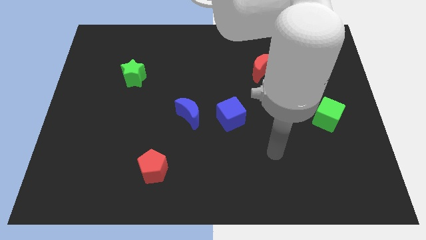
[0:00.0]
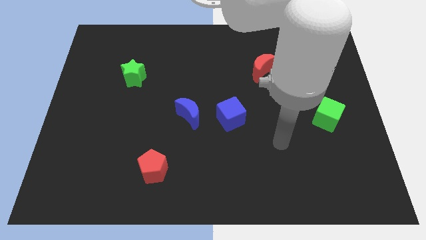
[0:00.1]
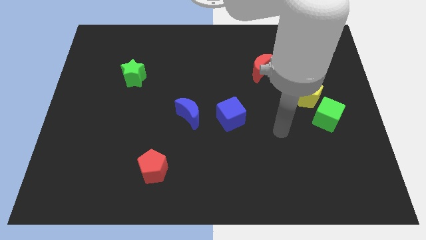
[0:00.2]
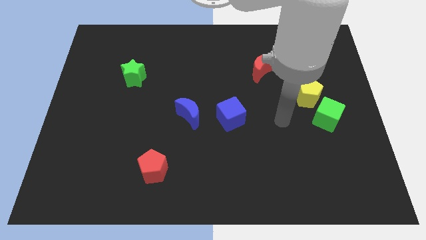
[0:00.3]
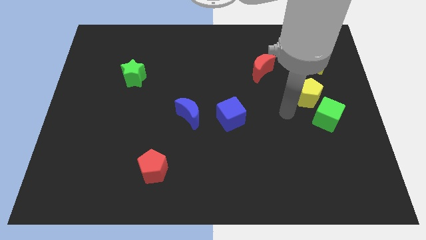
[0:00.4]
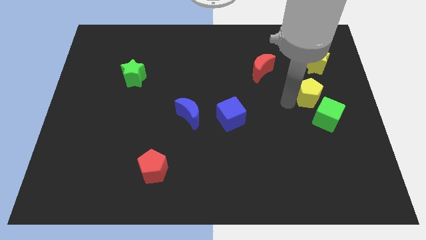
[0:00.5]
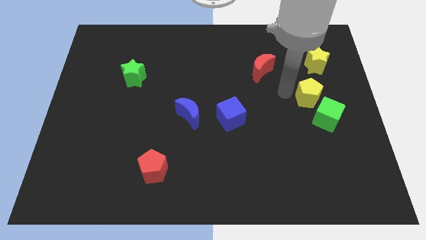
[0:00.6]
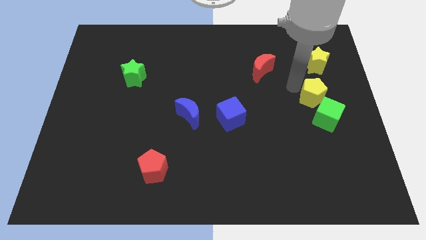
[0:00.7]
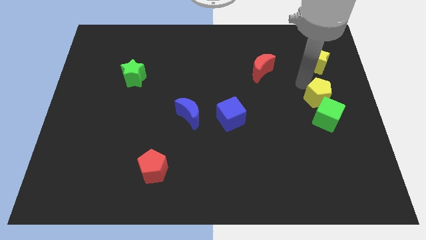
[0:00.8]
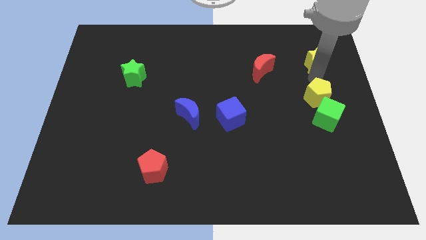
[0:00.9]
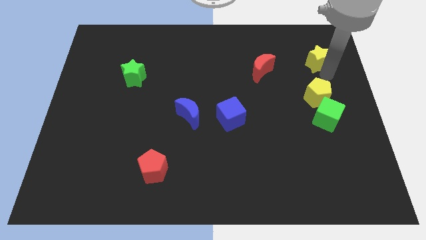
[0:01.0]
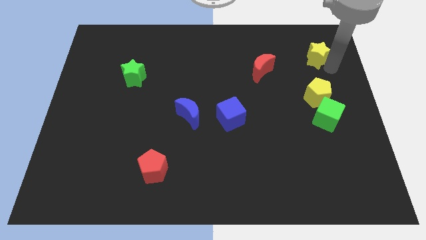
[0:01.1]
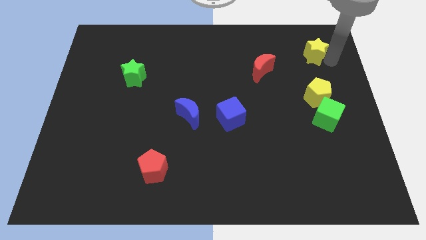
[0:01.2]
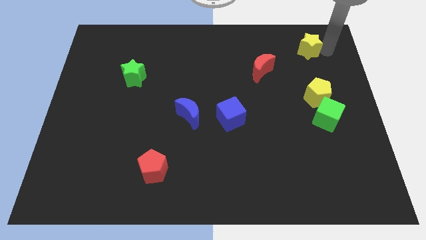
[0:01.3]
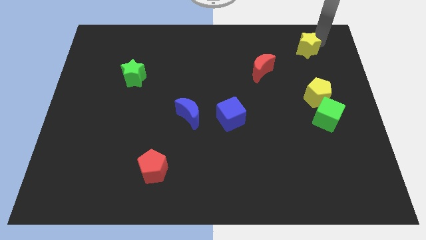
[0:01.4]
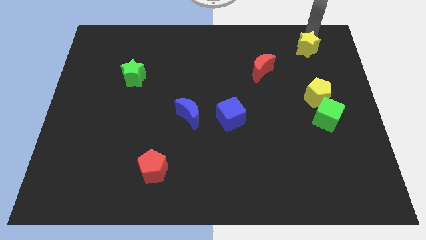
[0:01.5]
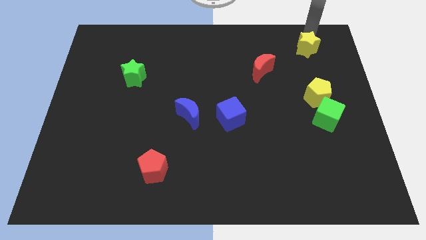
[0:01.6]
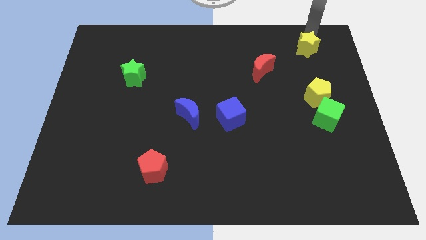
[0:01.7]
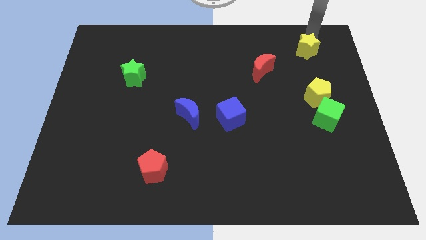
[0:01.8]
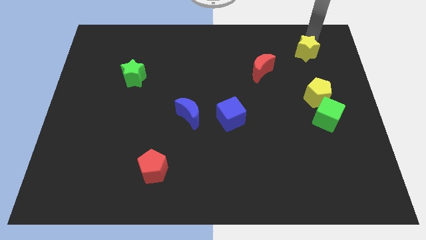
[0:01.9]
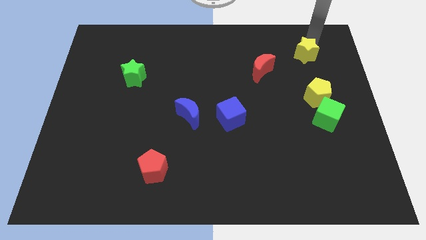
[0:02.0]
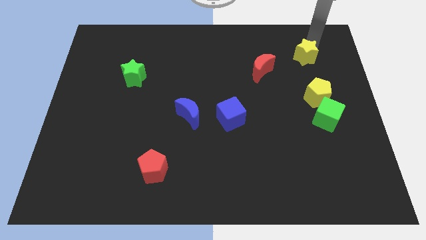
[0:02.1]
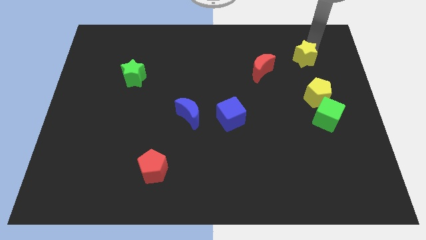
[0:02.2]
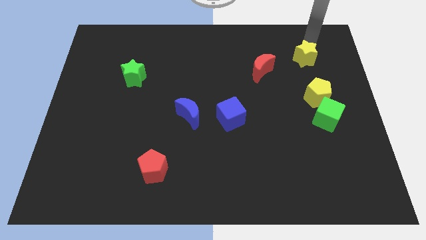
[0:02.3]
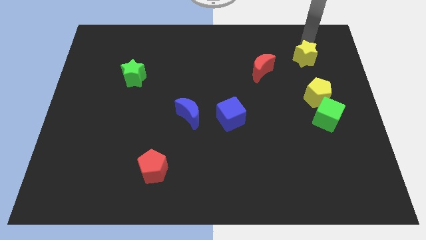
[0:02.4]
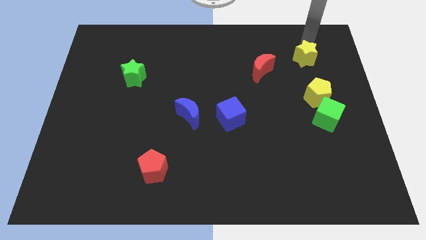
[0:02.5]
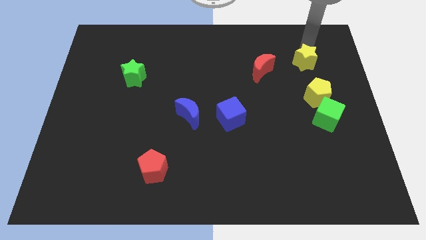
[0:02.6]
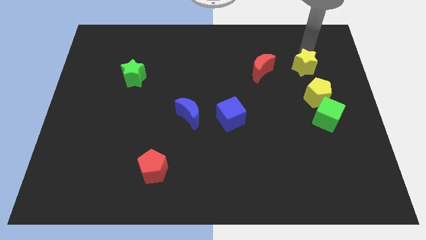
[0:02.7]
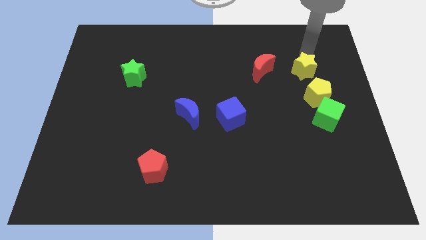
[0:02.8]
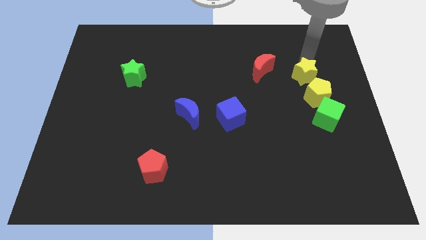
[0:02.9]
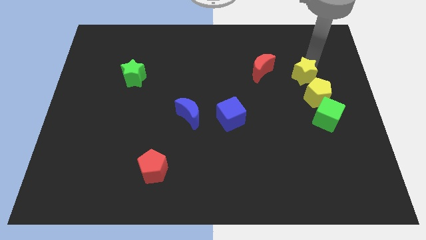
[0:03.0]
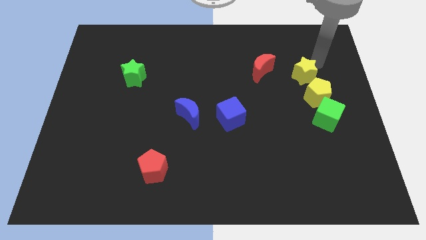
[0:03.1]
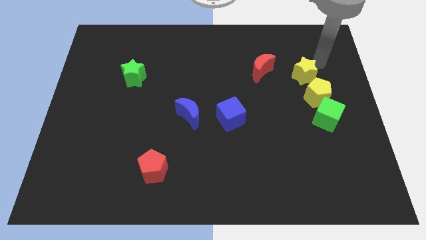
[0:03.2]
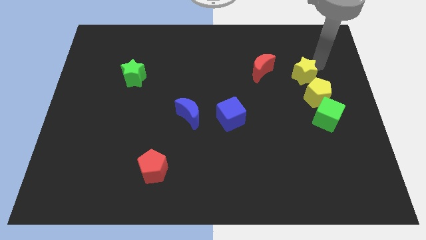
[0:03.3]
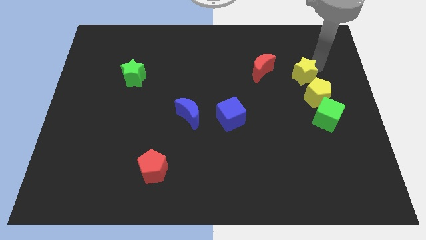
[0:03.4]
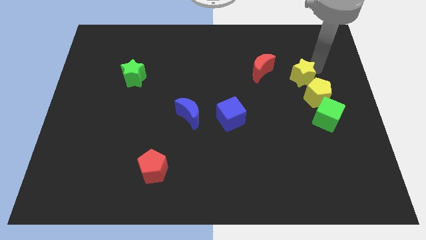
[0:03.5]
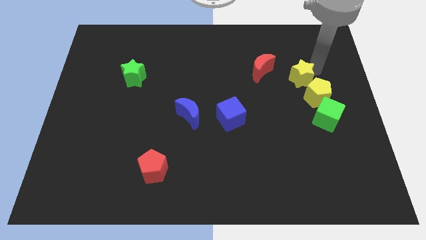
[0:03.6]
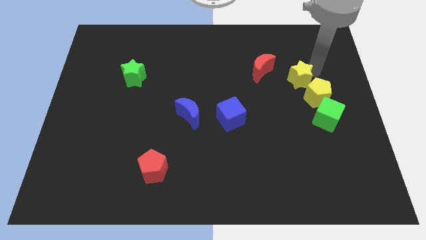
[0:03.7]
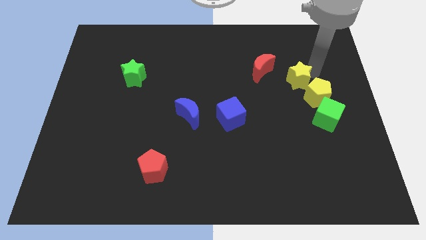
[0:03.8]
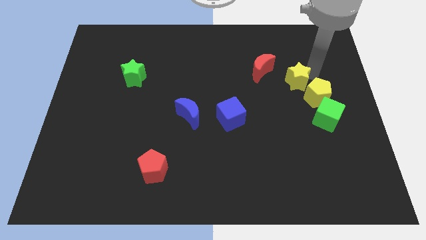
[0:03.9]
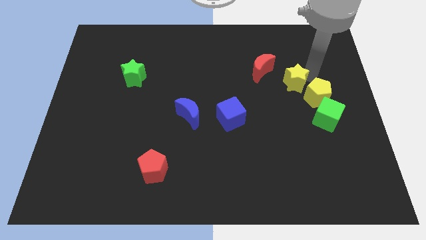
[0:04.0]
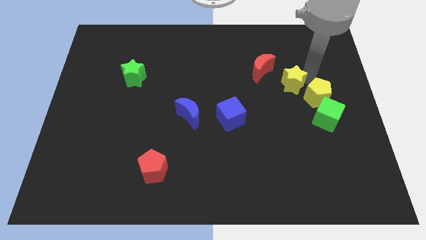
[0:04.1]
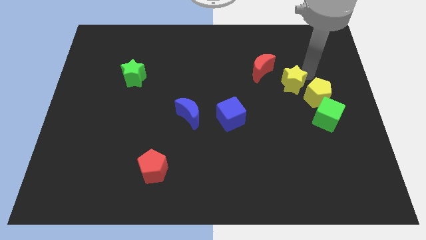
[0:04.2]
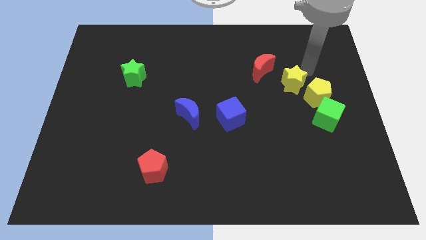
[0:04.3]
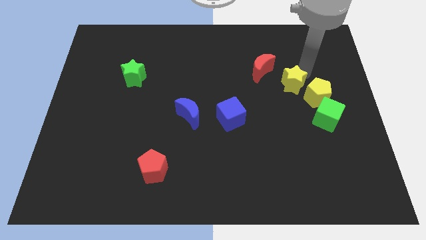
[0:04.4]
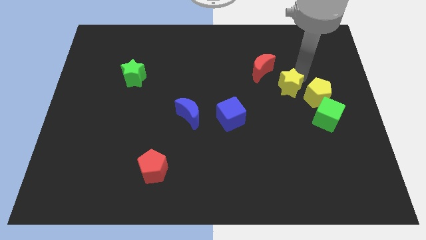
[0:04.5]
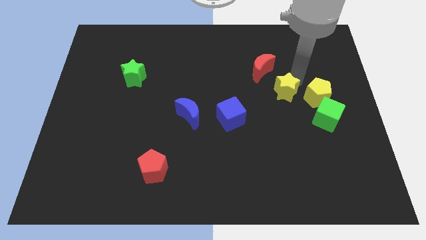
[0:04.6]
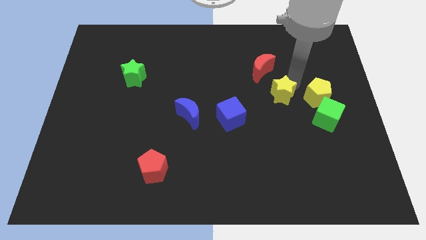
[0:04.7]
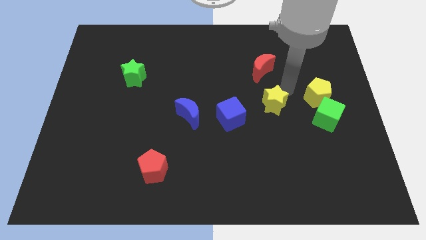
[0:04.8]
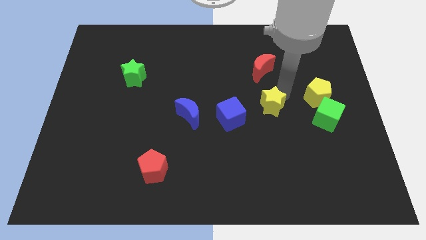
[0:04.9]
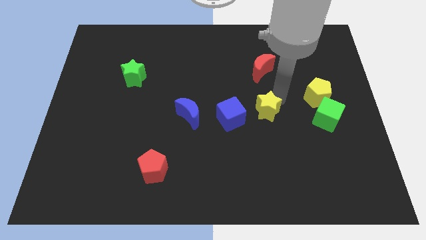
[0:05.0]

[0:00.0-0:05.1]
slide the yellow star downwards and to the left

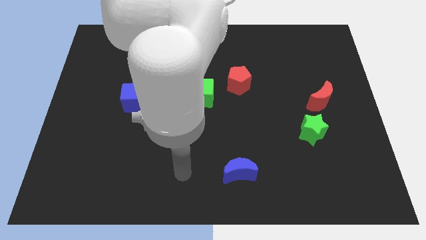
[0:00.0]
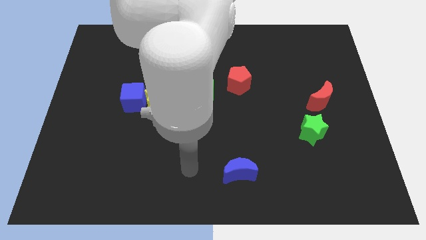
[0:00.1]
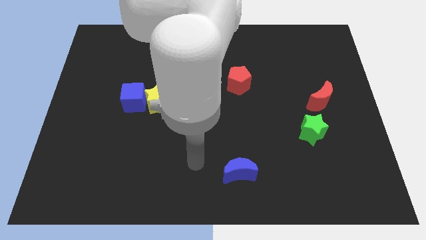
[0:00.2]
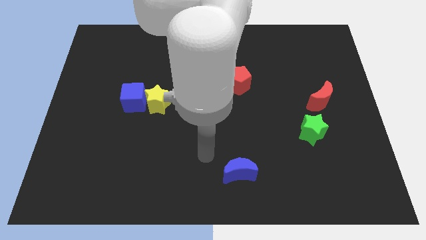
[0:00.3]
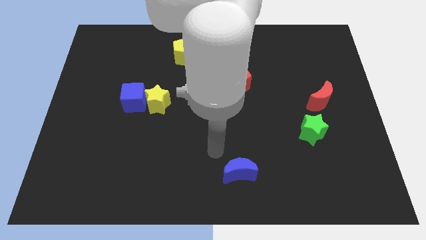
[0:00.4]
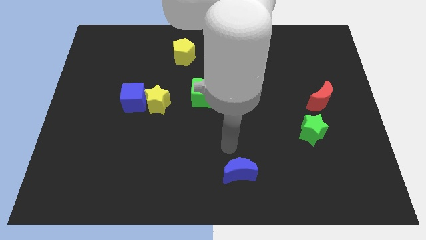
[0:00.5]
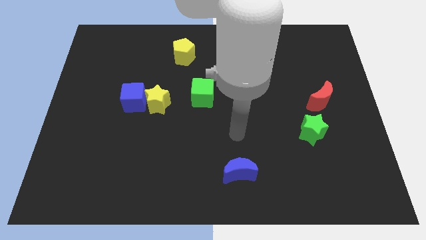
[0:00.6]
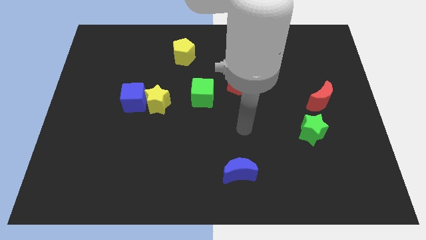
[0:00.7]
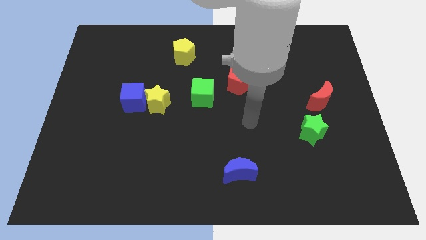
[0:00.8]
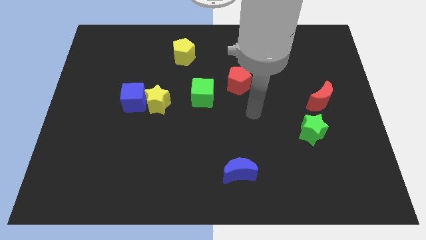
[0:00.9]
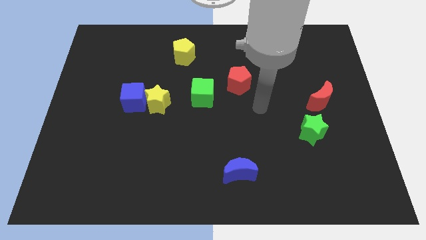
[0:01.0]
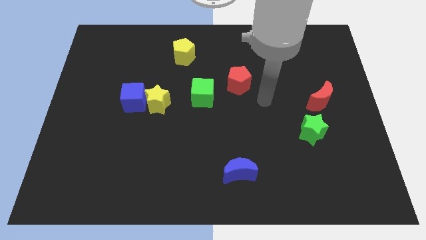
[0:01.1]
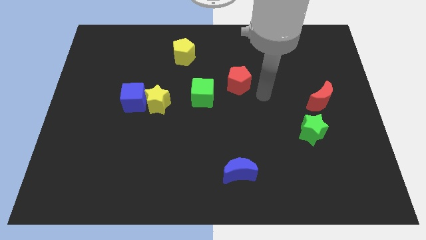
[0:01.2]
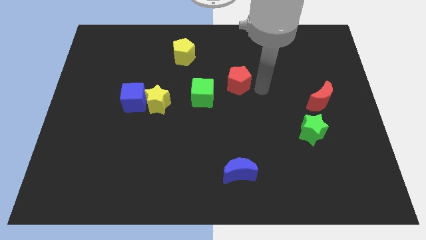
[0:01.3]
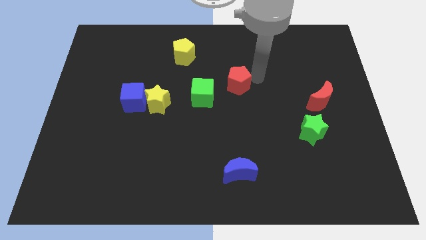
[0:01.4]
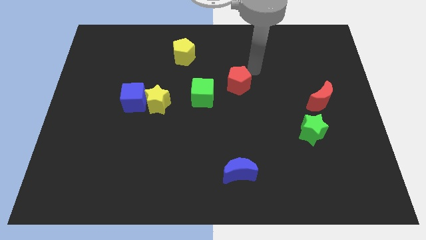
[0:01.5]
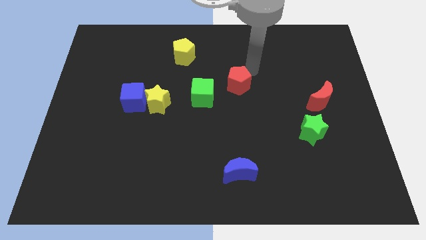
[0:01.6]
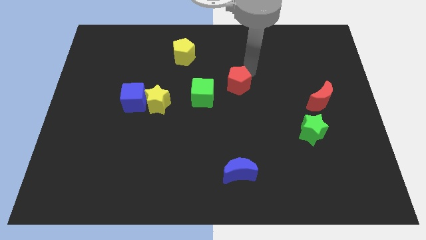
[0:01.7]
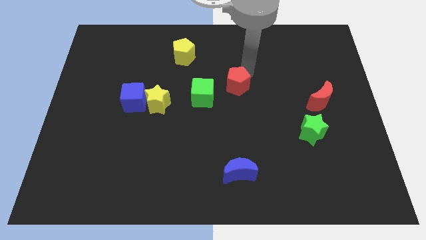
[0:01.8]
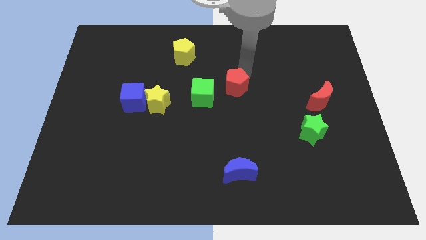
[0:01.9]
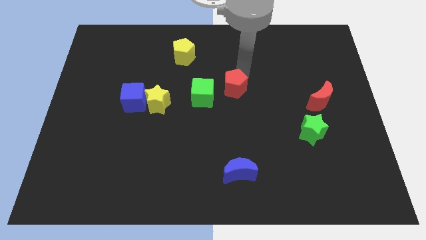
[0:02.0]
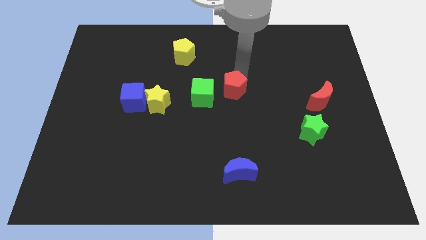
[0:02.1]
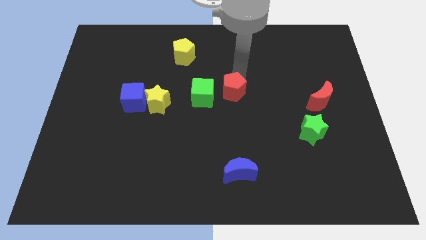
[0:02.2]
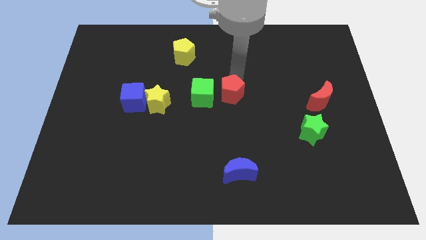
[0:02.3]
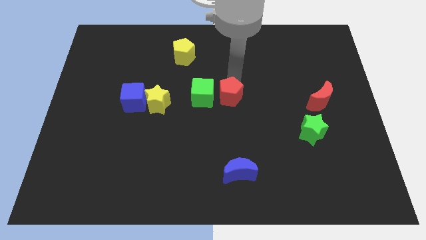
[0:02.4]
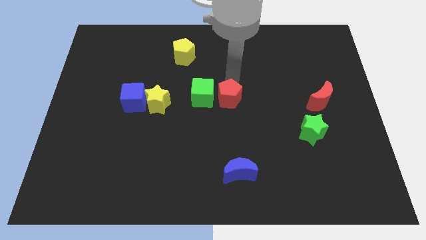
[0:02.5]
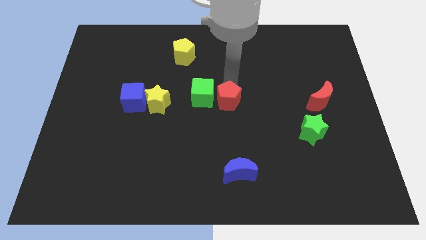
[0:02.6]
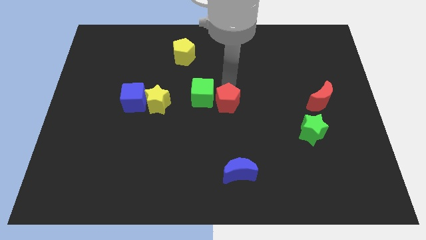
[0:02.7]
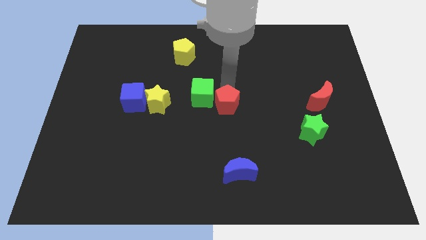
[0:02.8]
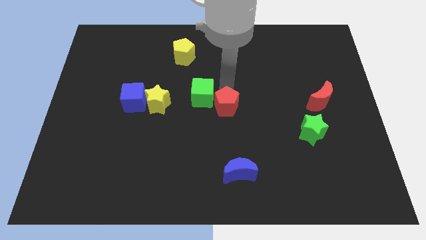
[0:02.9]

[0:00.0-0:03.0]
slide the red pentagon a bit downwards and left
